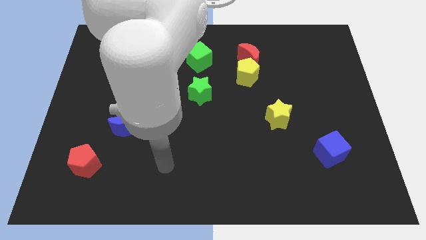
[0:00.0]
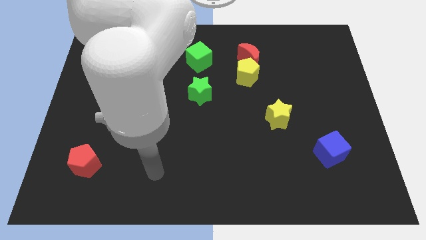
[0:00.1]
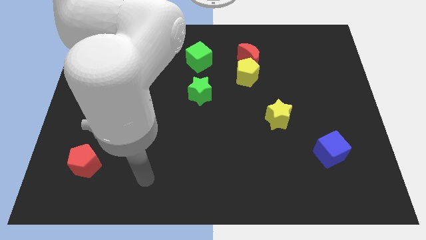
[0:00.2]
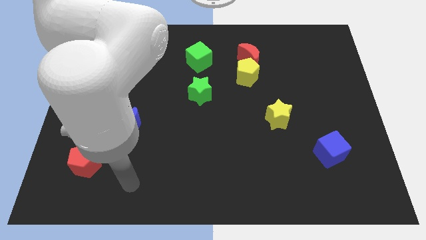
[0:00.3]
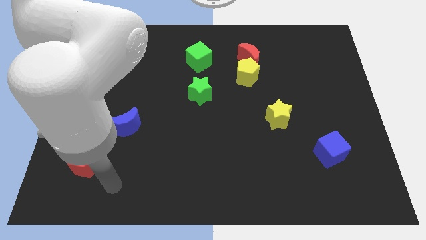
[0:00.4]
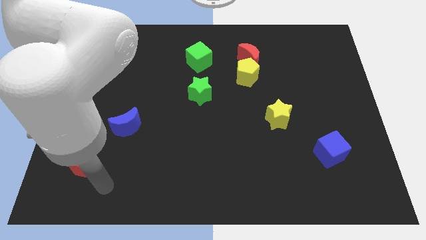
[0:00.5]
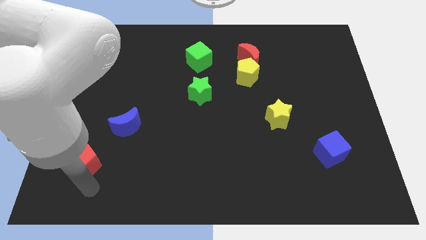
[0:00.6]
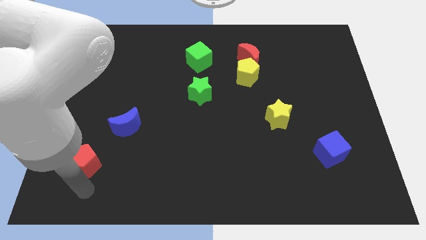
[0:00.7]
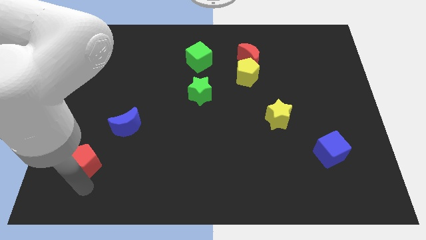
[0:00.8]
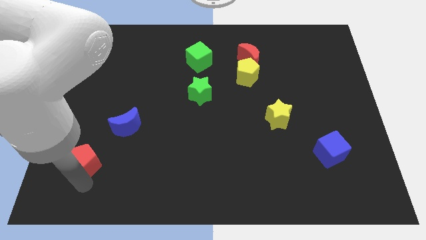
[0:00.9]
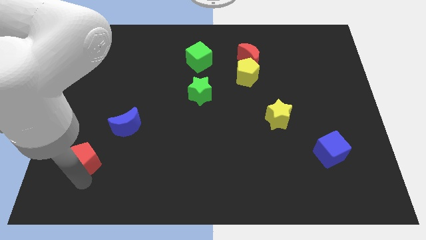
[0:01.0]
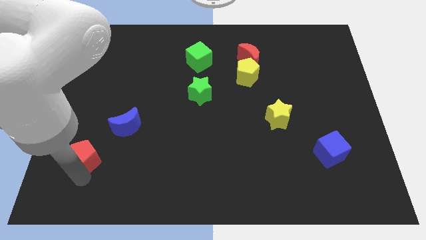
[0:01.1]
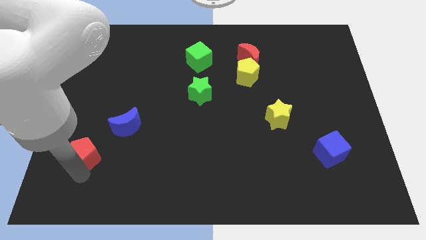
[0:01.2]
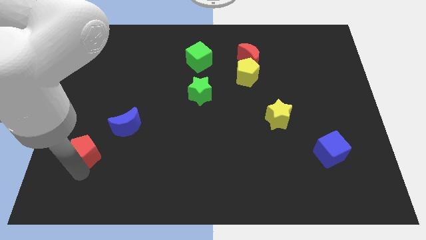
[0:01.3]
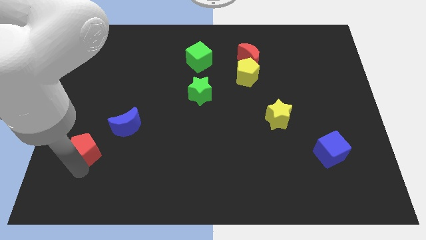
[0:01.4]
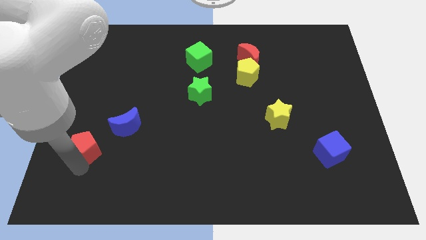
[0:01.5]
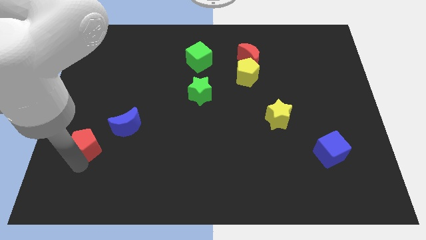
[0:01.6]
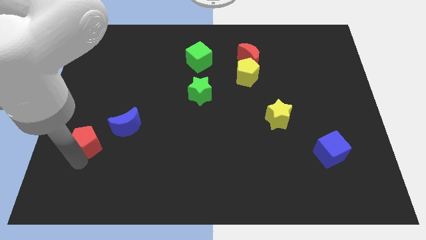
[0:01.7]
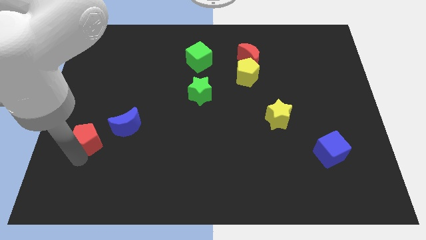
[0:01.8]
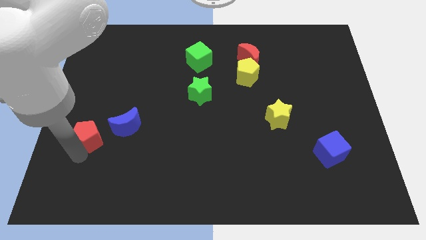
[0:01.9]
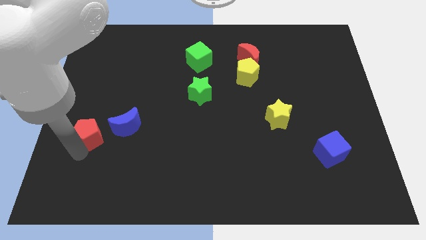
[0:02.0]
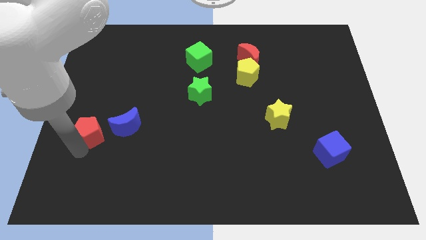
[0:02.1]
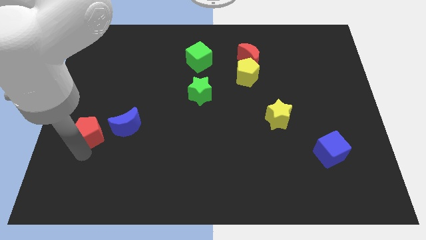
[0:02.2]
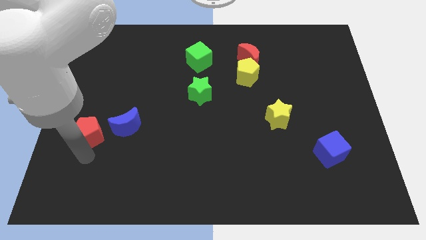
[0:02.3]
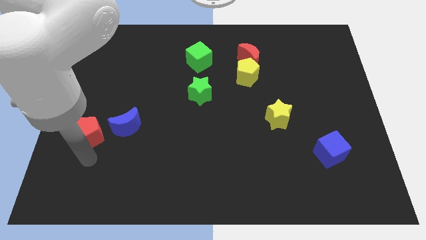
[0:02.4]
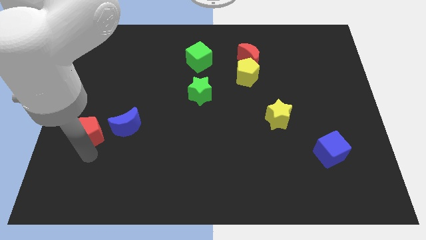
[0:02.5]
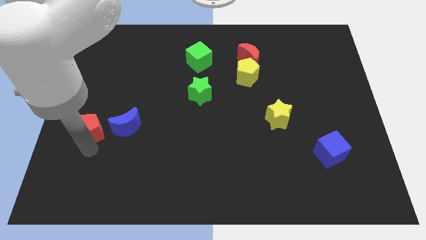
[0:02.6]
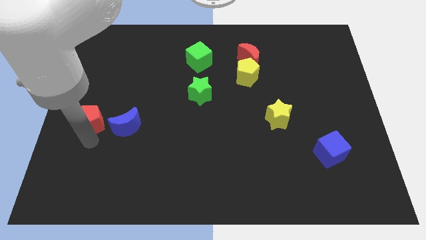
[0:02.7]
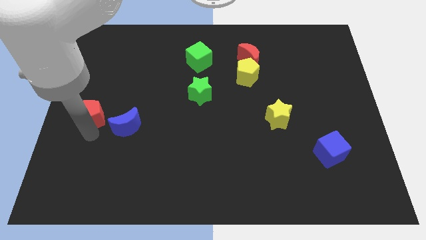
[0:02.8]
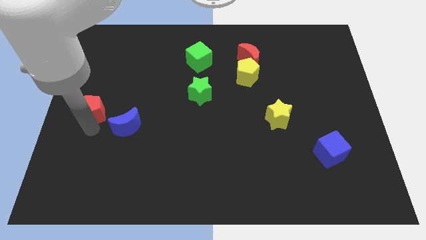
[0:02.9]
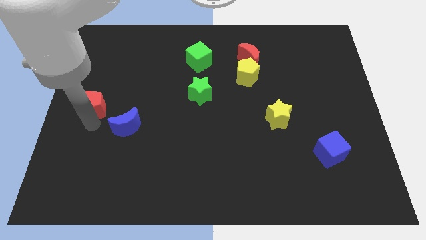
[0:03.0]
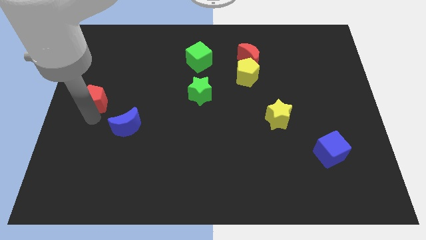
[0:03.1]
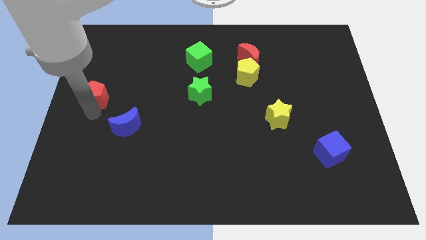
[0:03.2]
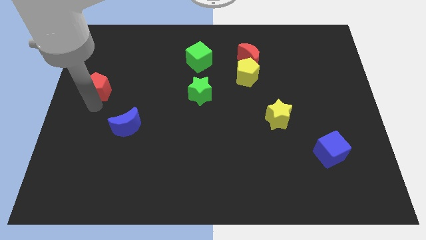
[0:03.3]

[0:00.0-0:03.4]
move the red pentagon up

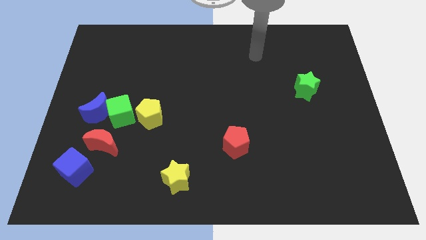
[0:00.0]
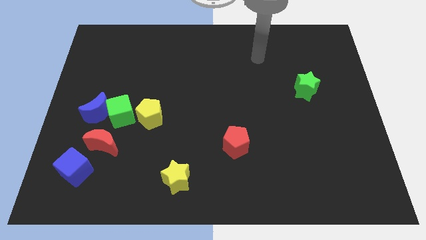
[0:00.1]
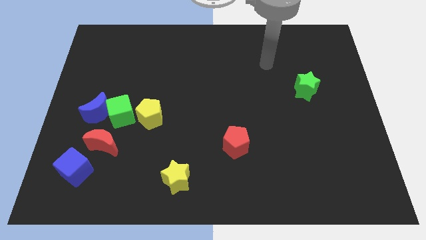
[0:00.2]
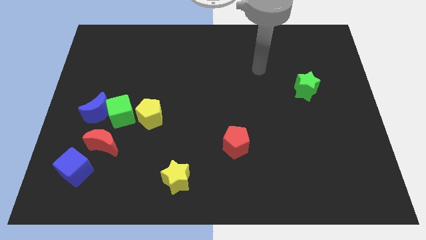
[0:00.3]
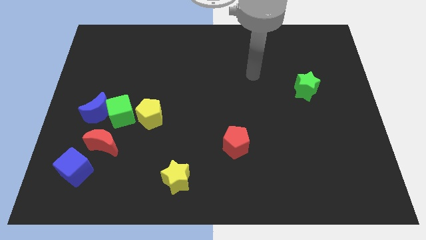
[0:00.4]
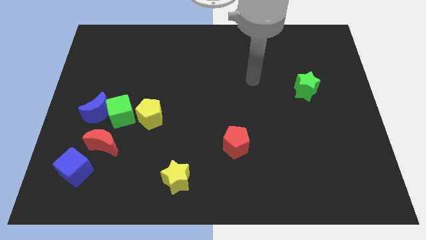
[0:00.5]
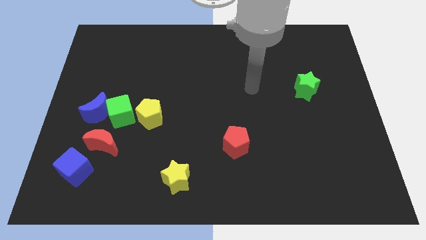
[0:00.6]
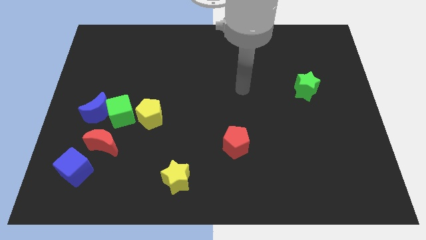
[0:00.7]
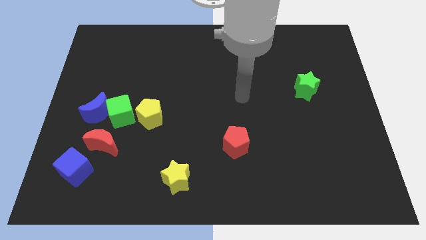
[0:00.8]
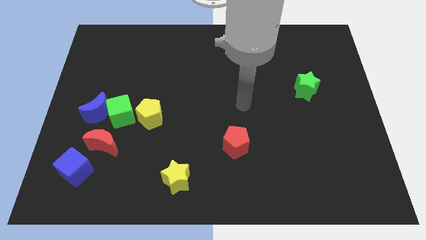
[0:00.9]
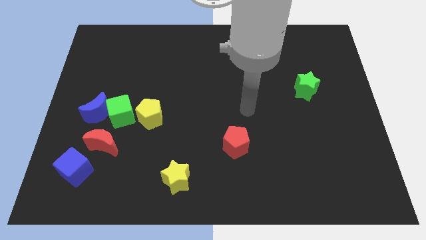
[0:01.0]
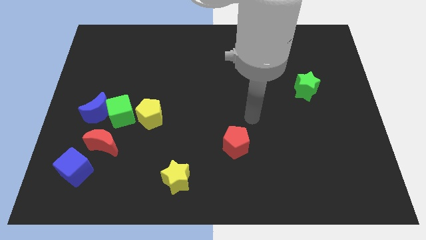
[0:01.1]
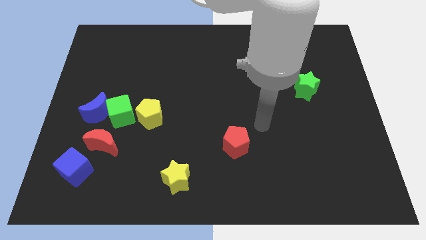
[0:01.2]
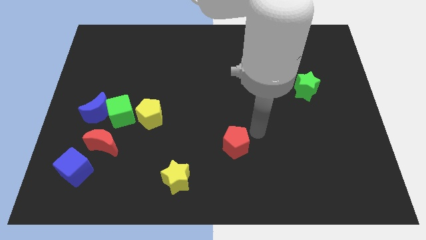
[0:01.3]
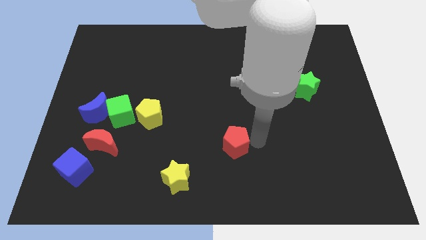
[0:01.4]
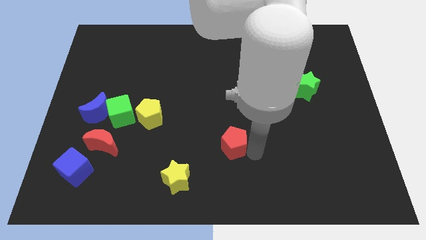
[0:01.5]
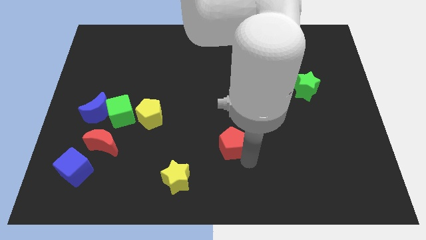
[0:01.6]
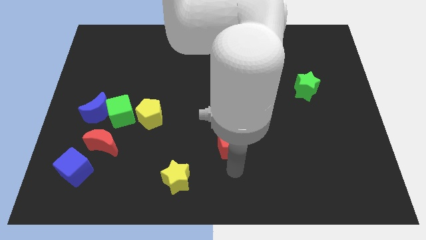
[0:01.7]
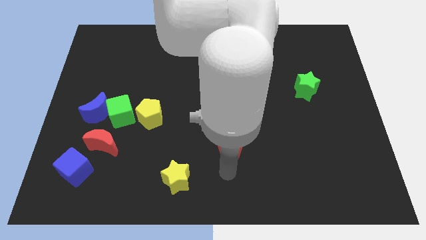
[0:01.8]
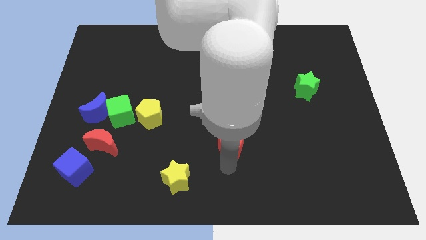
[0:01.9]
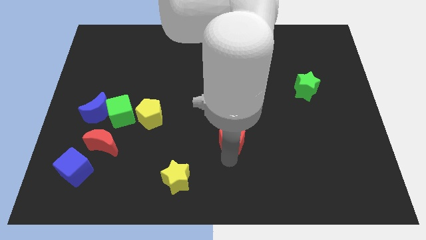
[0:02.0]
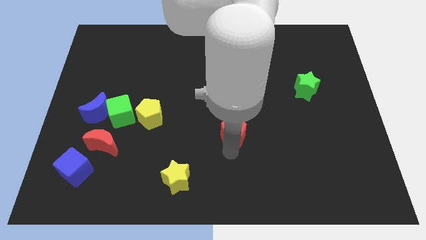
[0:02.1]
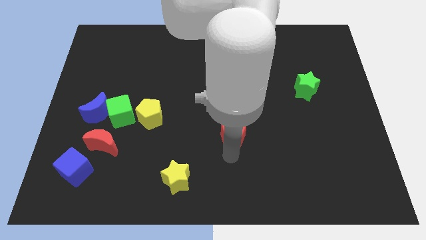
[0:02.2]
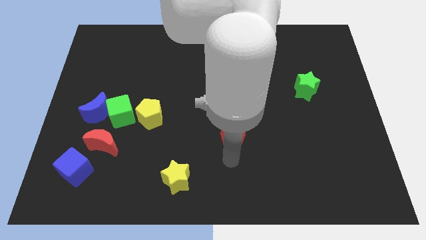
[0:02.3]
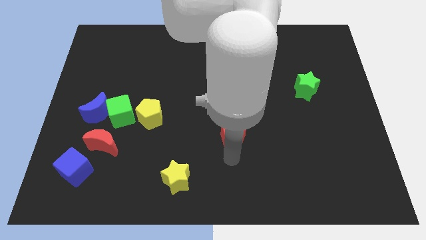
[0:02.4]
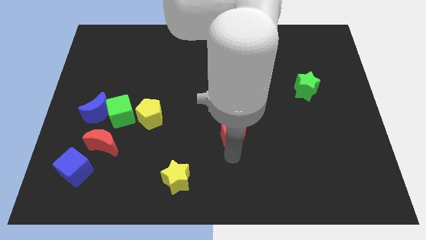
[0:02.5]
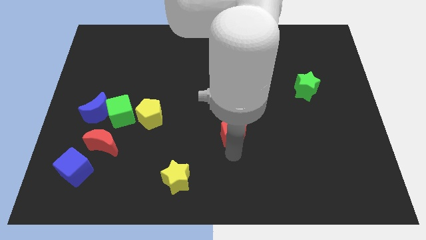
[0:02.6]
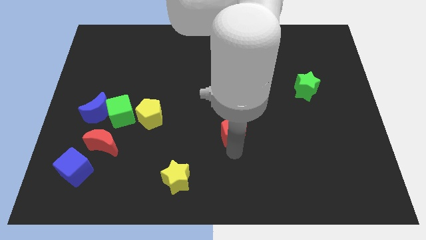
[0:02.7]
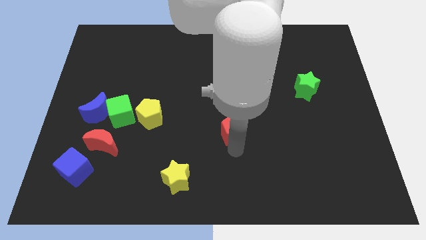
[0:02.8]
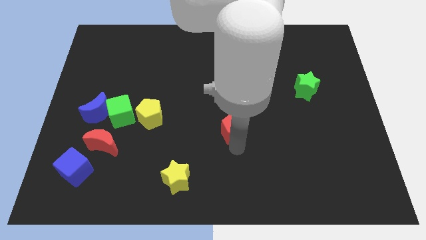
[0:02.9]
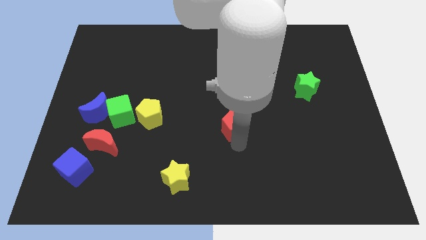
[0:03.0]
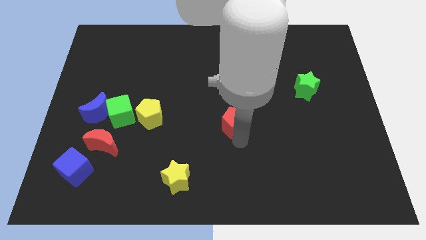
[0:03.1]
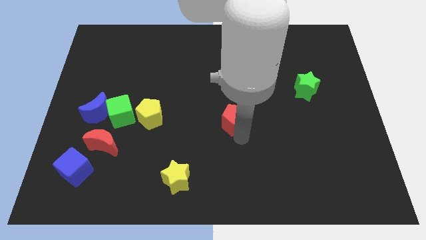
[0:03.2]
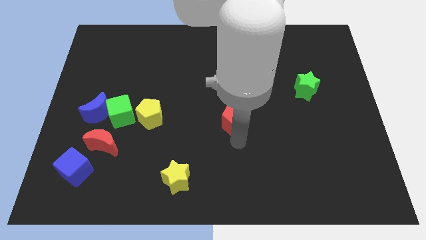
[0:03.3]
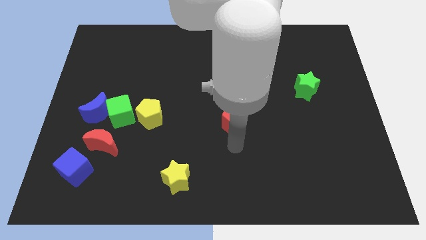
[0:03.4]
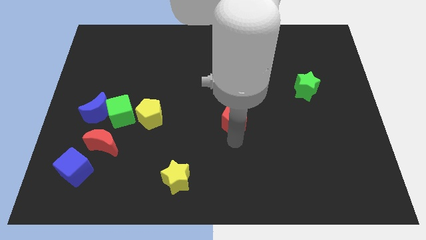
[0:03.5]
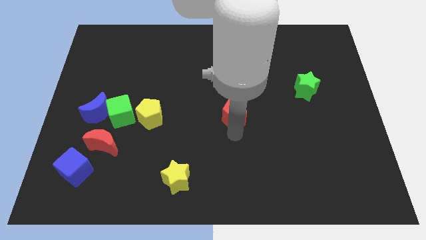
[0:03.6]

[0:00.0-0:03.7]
slide the red pentagon up a little

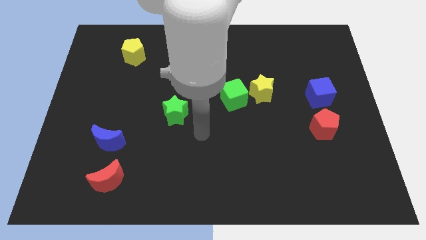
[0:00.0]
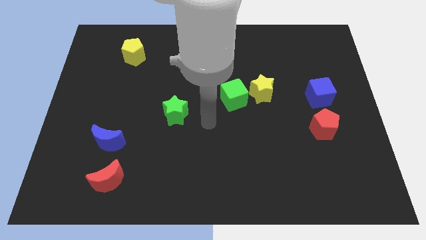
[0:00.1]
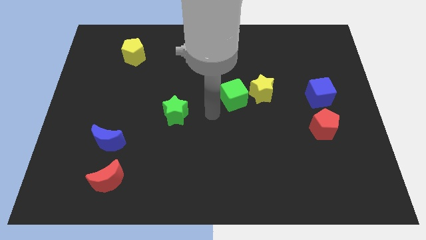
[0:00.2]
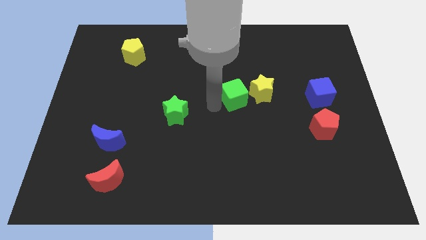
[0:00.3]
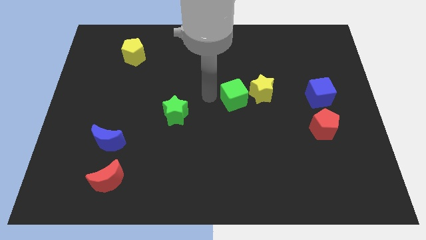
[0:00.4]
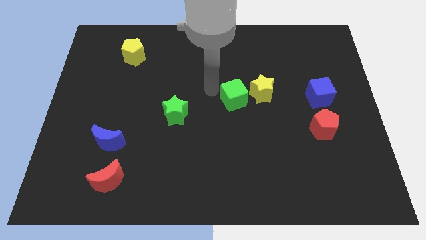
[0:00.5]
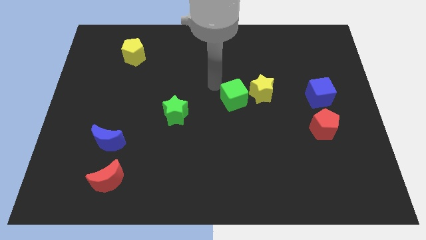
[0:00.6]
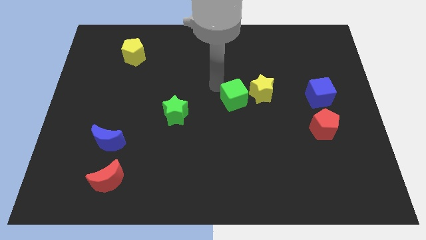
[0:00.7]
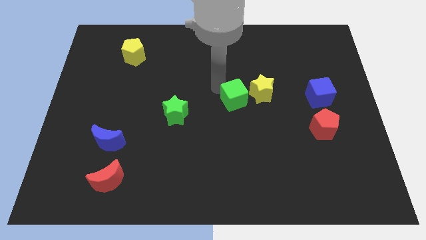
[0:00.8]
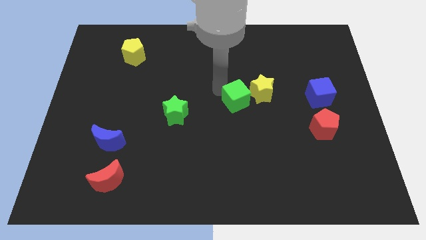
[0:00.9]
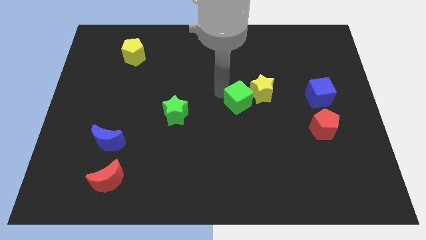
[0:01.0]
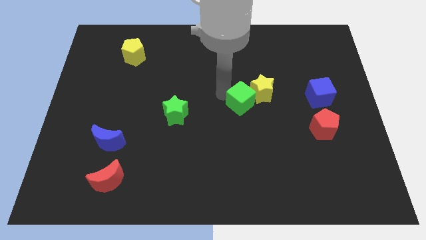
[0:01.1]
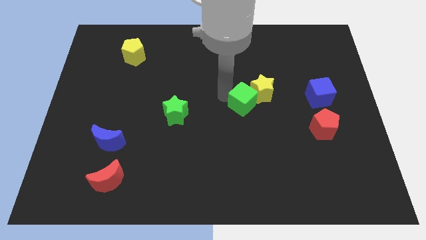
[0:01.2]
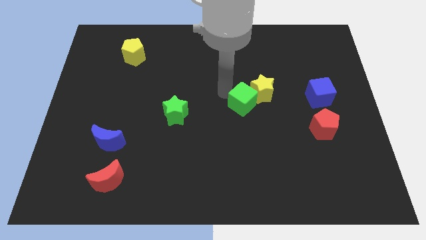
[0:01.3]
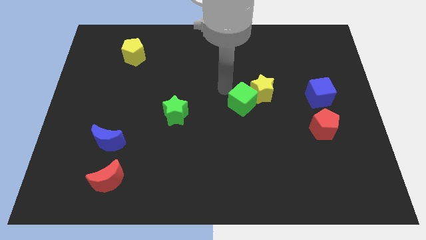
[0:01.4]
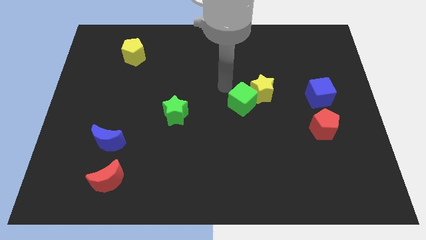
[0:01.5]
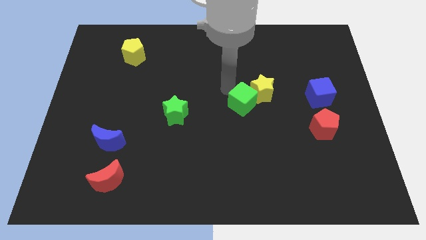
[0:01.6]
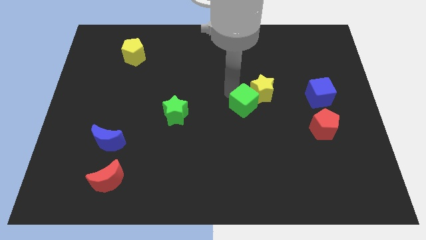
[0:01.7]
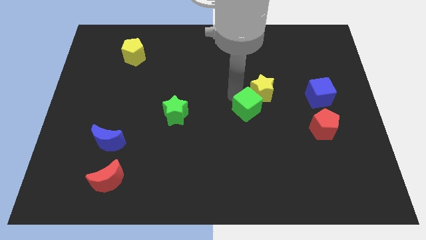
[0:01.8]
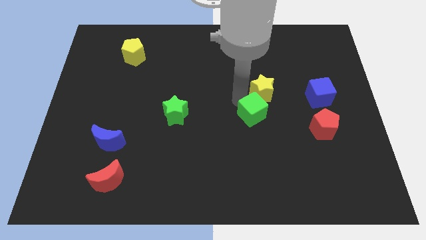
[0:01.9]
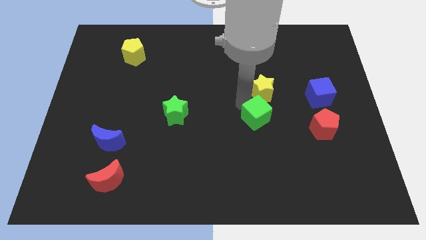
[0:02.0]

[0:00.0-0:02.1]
move the green cube a little bit down and to the right
